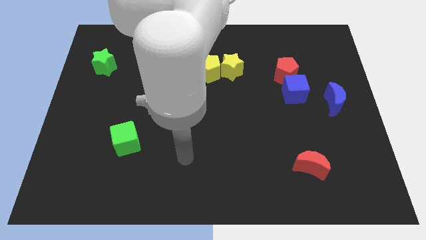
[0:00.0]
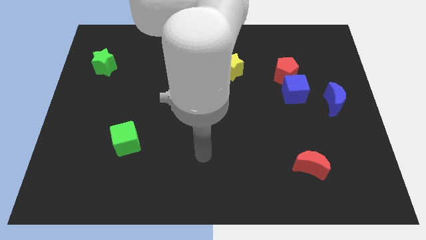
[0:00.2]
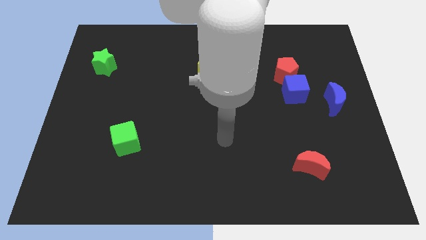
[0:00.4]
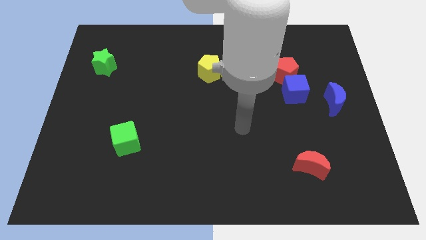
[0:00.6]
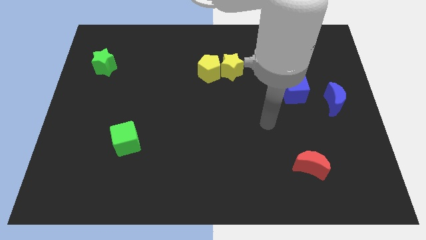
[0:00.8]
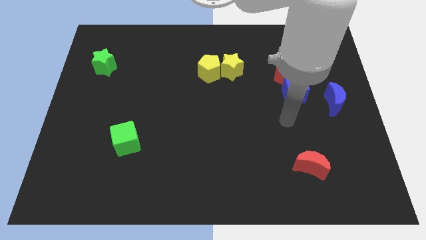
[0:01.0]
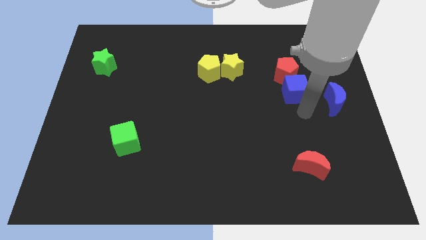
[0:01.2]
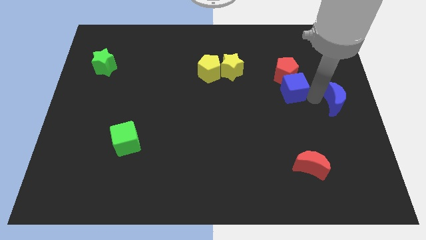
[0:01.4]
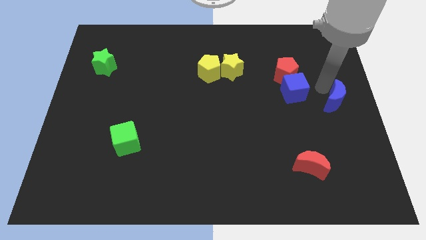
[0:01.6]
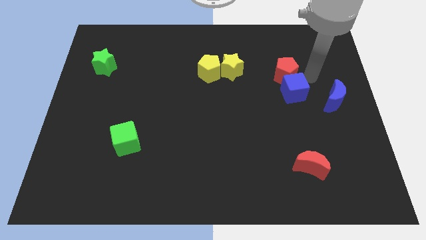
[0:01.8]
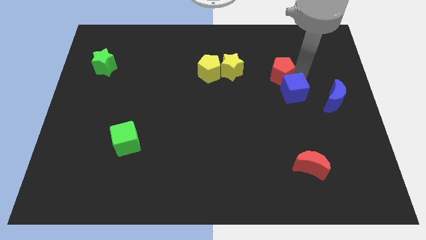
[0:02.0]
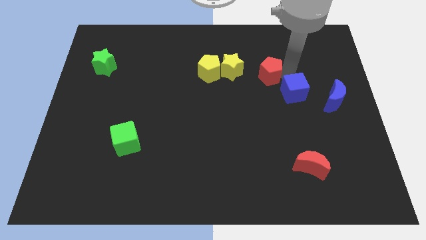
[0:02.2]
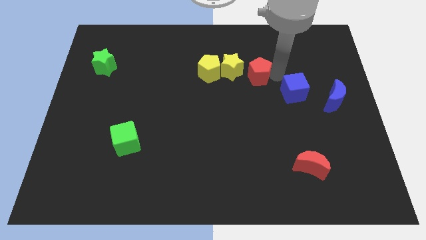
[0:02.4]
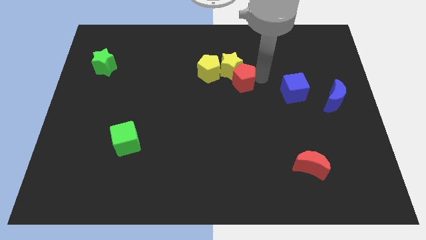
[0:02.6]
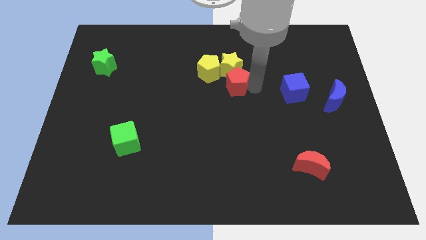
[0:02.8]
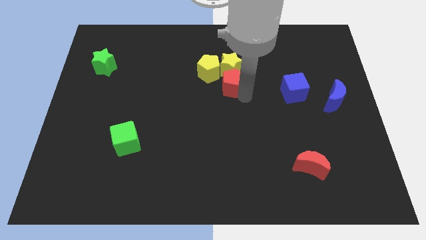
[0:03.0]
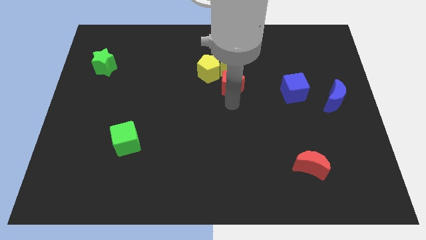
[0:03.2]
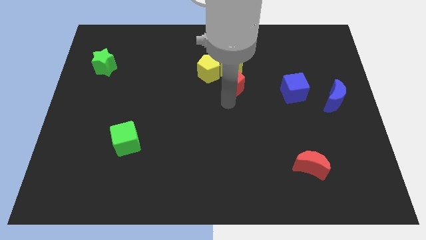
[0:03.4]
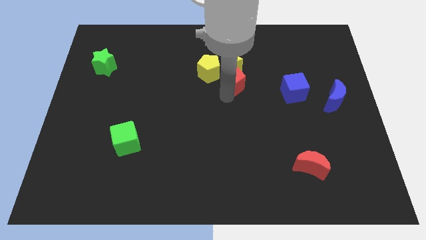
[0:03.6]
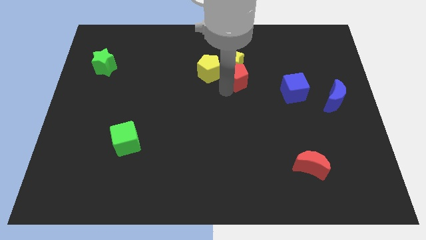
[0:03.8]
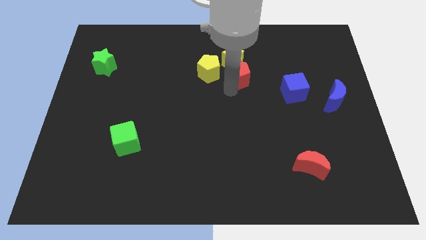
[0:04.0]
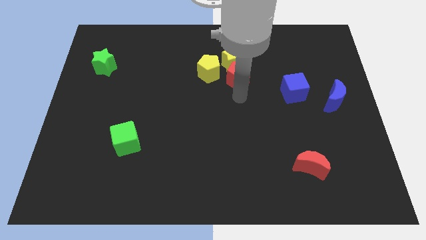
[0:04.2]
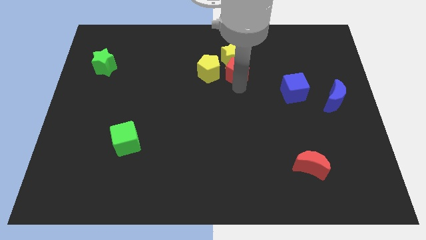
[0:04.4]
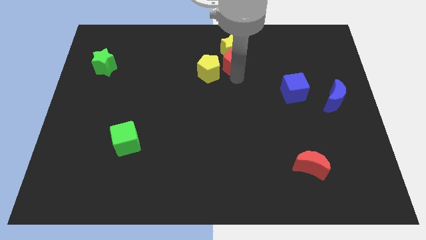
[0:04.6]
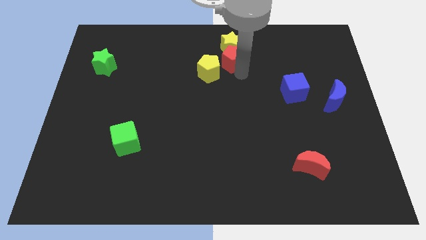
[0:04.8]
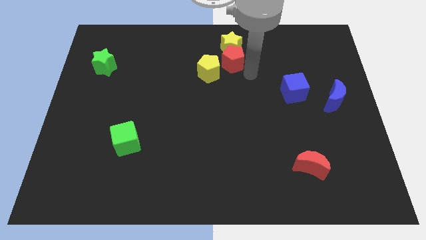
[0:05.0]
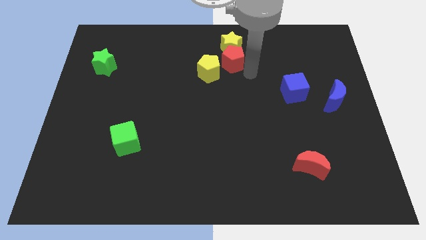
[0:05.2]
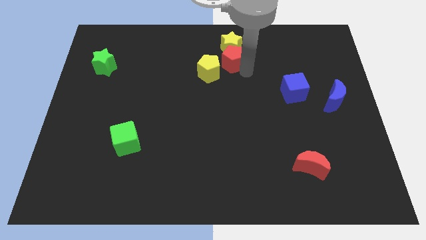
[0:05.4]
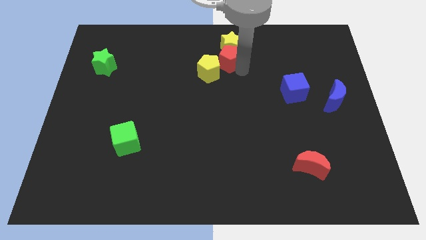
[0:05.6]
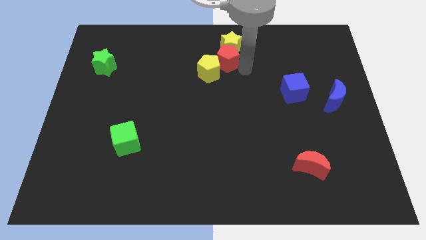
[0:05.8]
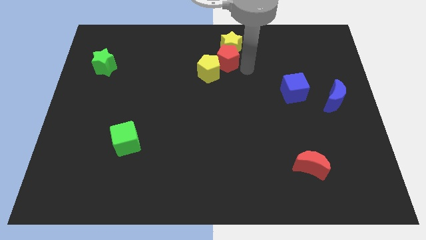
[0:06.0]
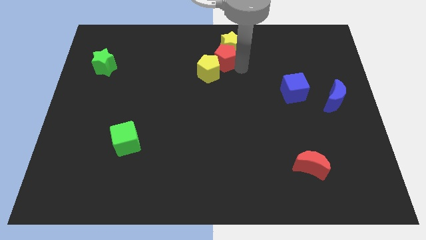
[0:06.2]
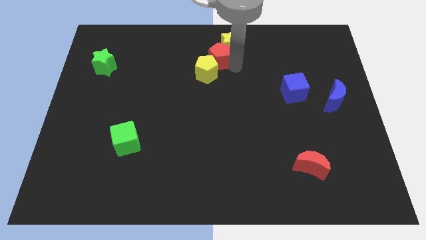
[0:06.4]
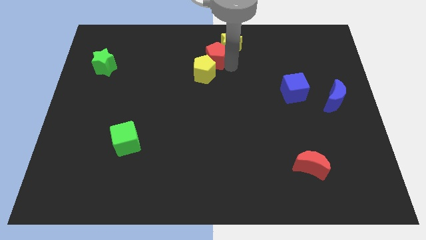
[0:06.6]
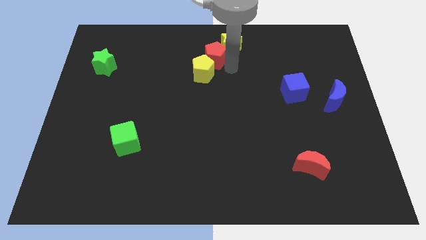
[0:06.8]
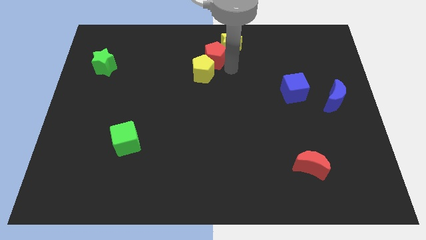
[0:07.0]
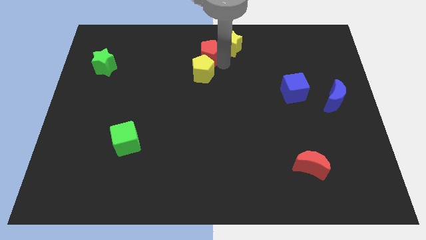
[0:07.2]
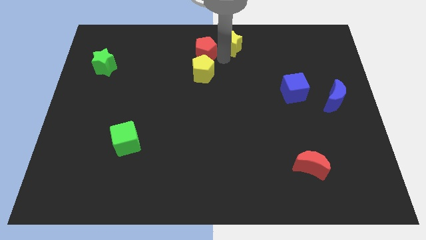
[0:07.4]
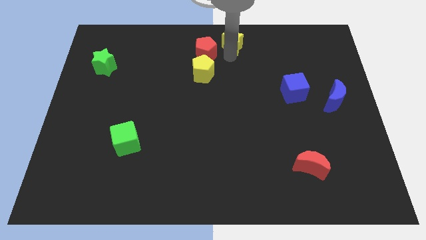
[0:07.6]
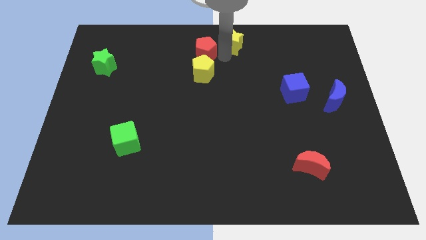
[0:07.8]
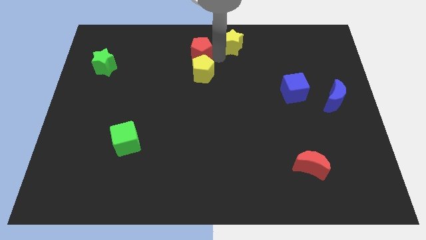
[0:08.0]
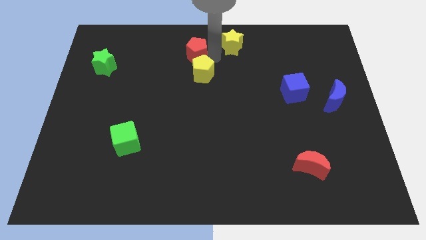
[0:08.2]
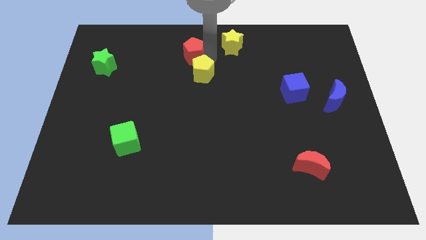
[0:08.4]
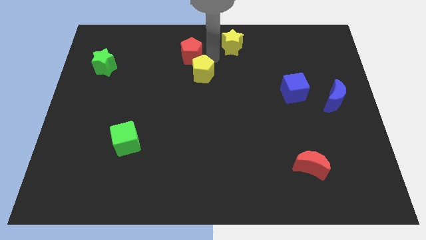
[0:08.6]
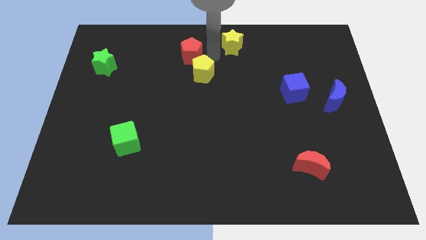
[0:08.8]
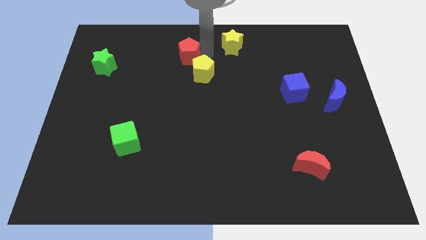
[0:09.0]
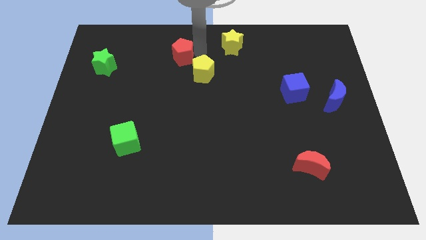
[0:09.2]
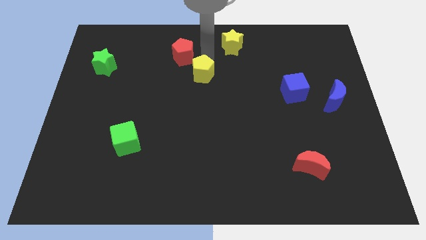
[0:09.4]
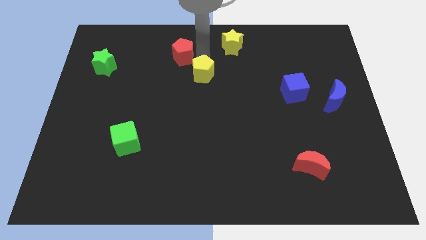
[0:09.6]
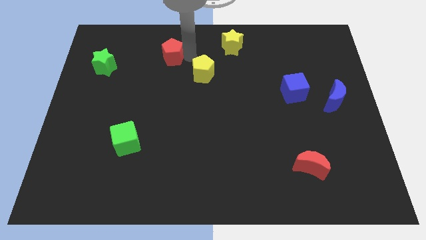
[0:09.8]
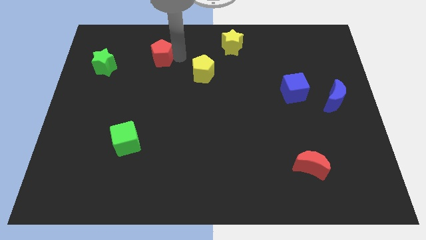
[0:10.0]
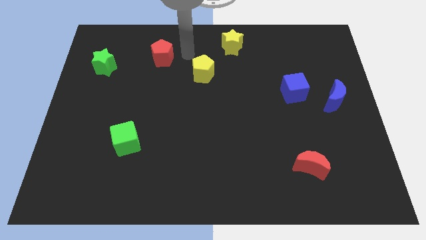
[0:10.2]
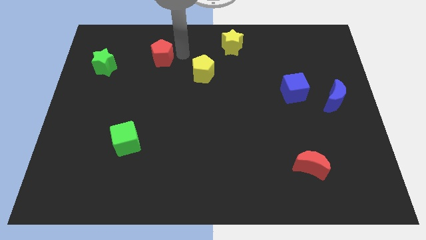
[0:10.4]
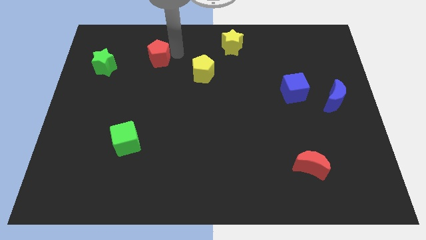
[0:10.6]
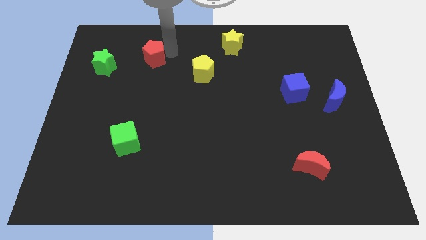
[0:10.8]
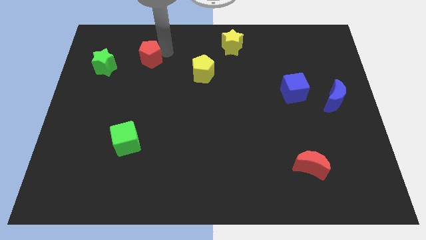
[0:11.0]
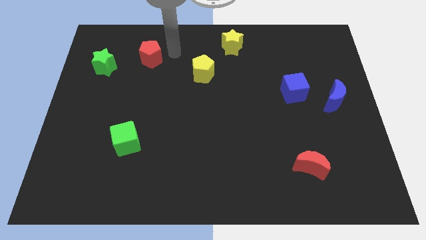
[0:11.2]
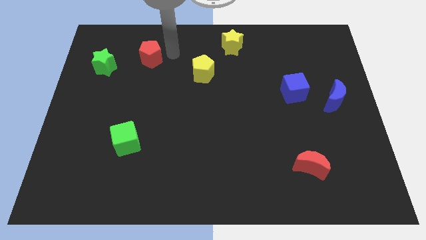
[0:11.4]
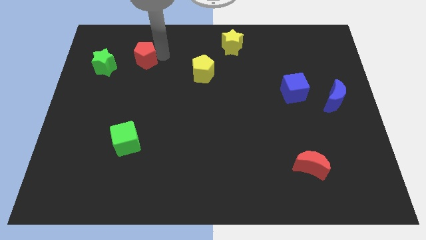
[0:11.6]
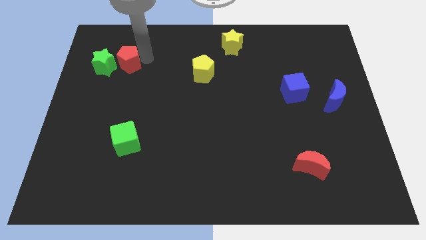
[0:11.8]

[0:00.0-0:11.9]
push the red pentagon to the green star

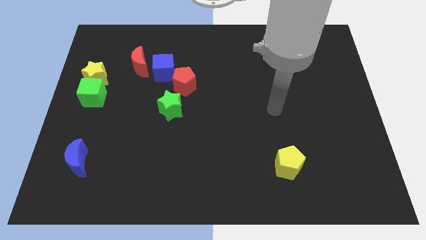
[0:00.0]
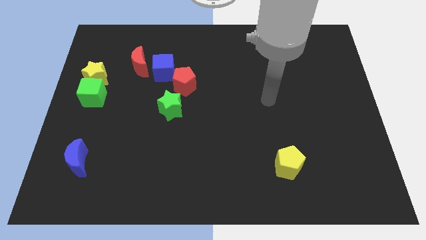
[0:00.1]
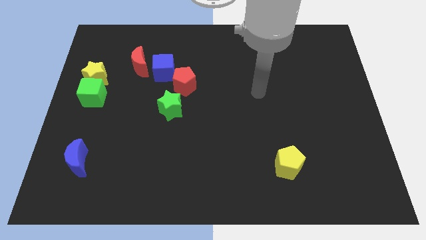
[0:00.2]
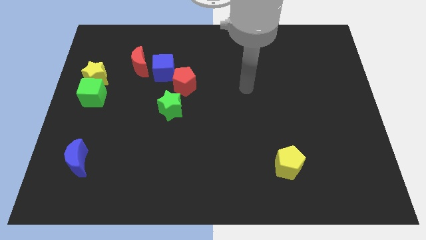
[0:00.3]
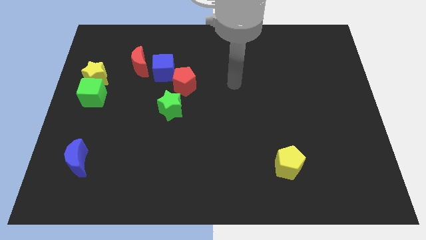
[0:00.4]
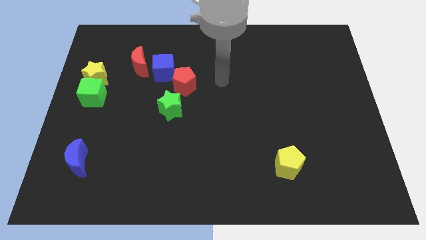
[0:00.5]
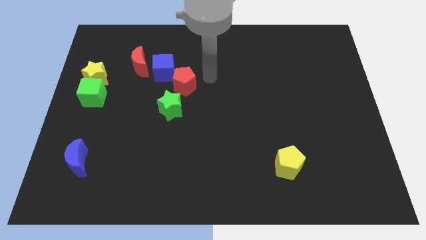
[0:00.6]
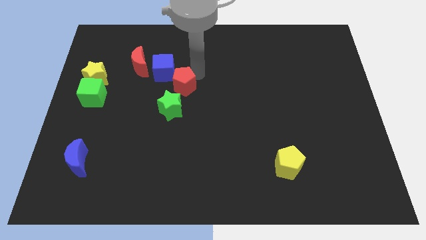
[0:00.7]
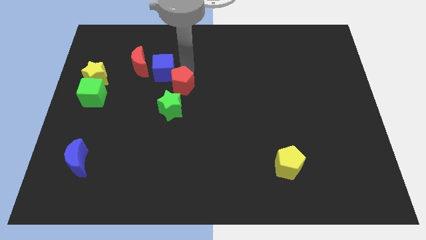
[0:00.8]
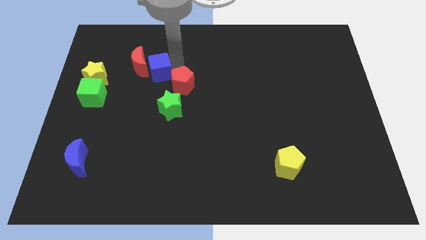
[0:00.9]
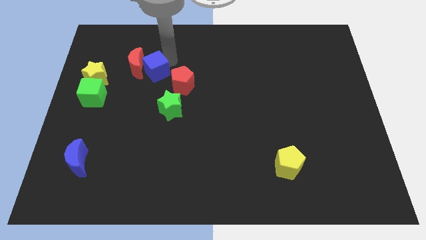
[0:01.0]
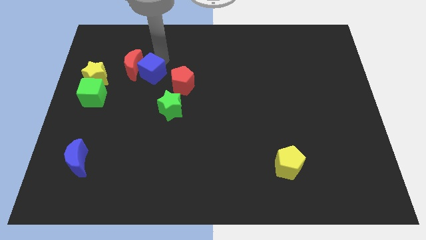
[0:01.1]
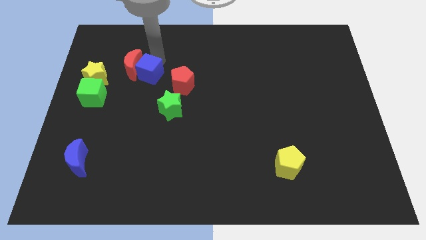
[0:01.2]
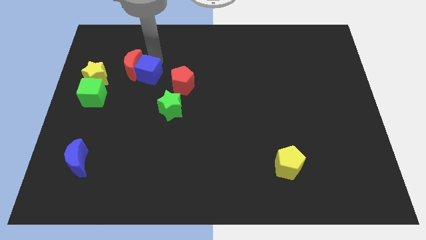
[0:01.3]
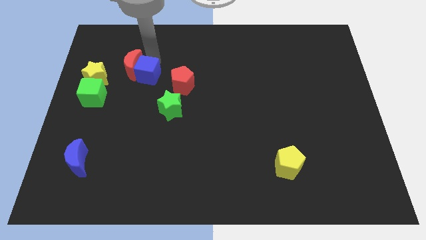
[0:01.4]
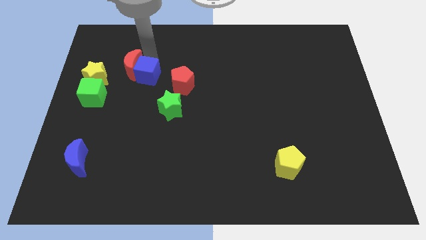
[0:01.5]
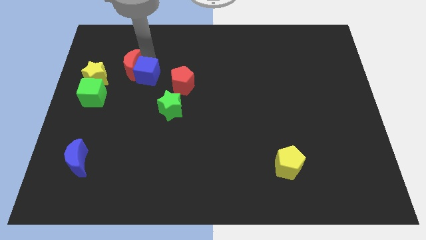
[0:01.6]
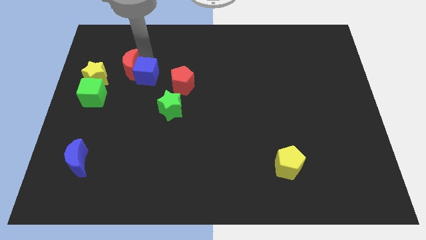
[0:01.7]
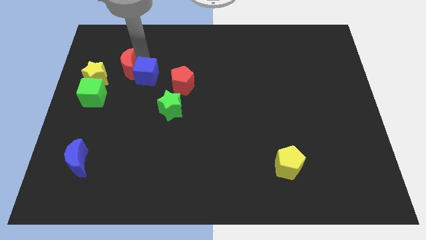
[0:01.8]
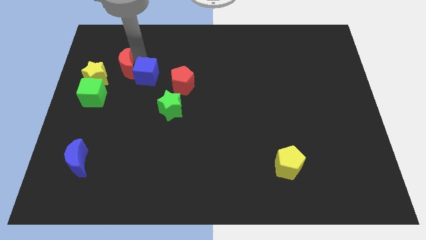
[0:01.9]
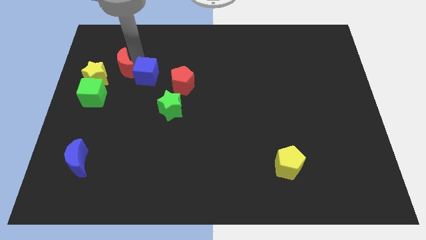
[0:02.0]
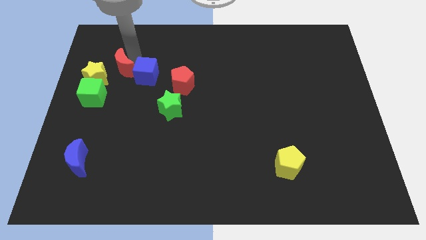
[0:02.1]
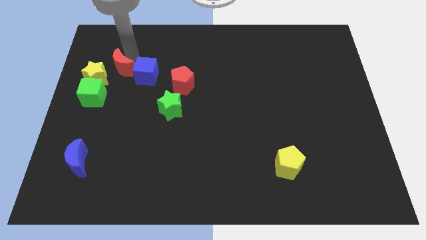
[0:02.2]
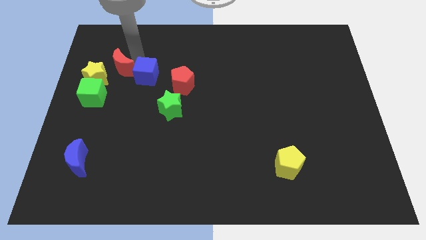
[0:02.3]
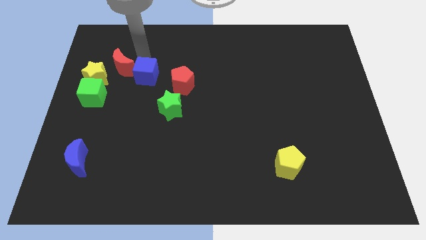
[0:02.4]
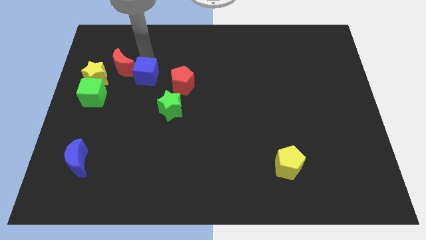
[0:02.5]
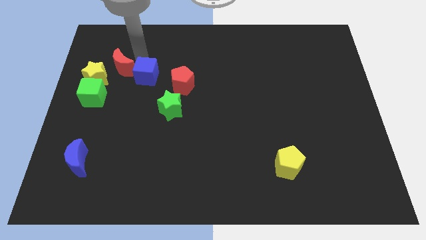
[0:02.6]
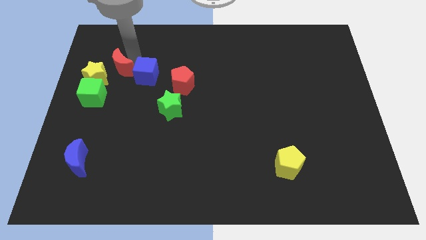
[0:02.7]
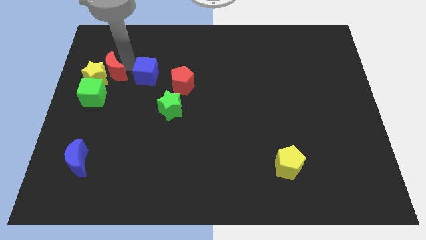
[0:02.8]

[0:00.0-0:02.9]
put the red moon next to the yellow star
